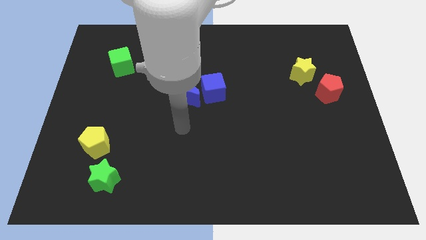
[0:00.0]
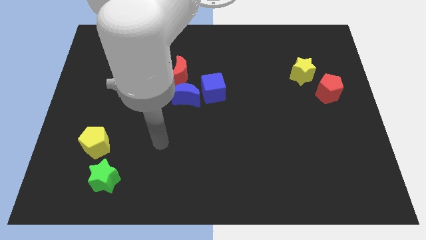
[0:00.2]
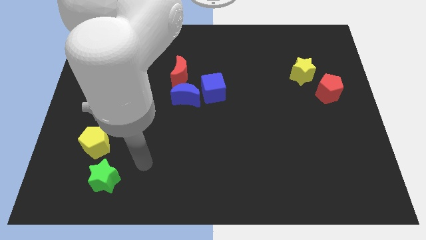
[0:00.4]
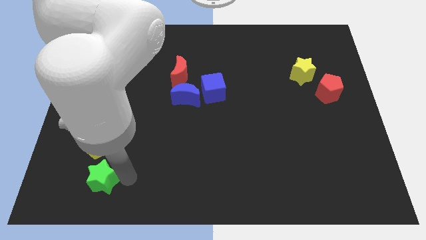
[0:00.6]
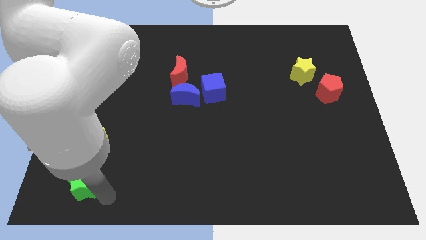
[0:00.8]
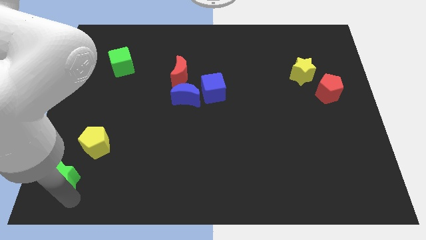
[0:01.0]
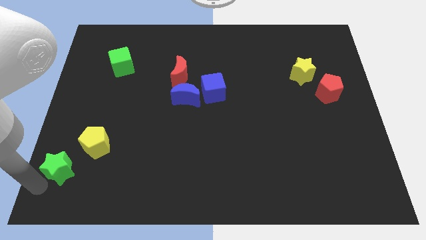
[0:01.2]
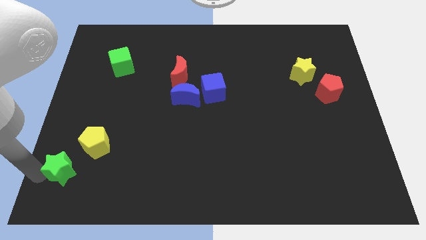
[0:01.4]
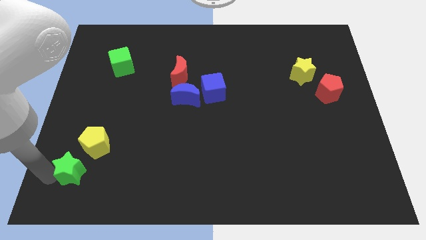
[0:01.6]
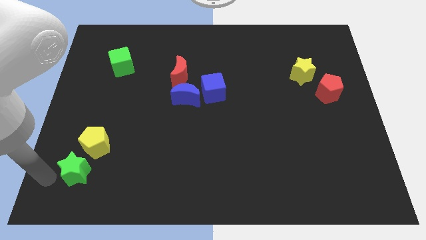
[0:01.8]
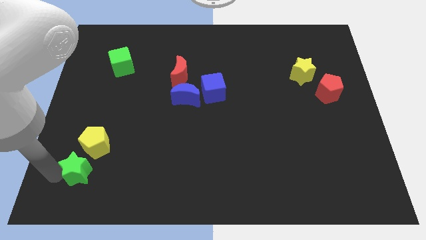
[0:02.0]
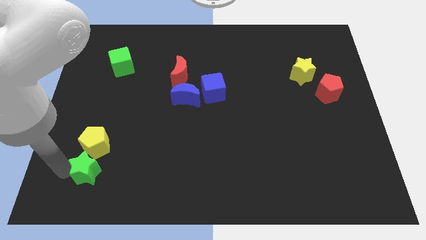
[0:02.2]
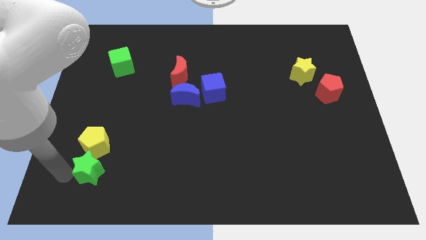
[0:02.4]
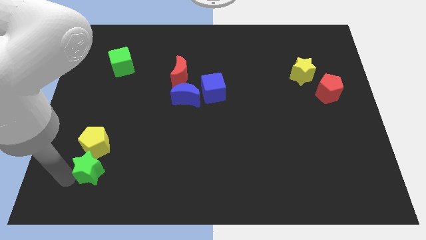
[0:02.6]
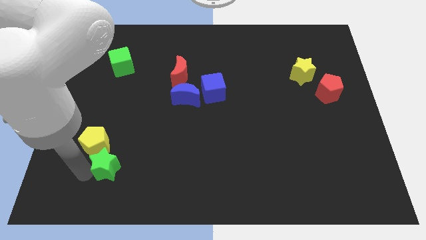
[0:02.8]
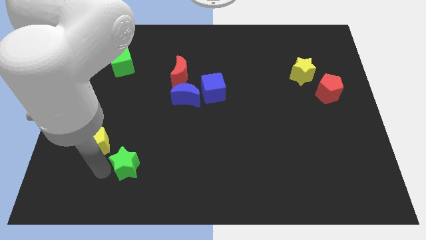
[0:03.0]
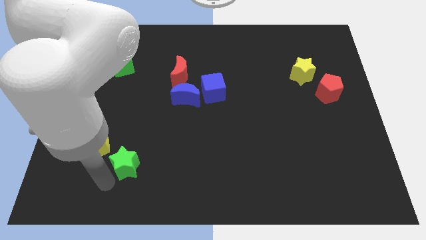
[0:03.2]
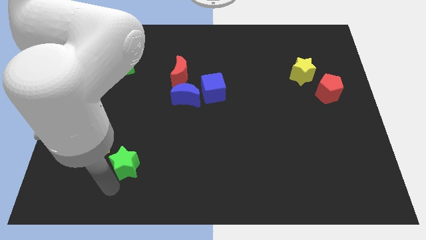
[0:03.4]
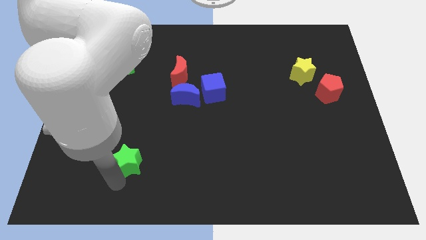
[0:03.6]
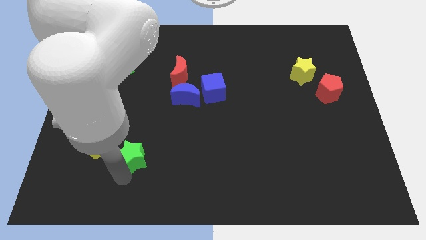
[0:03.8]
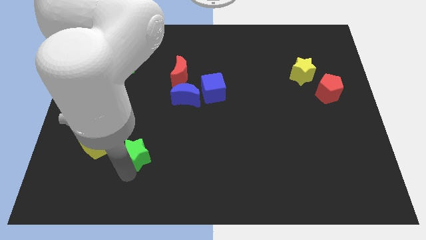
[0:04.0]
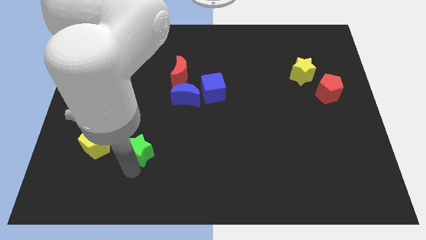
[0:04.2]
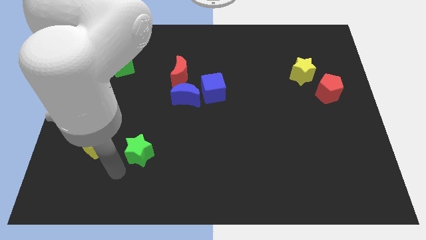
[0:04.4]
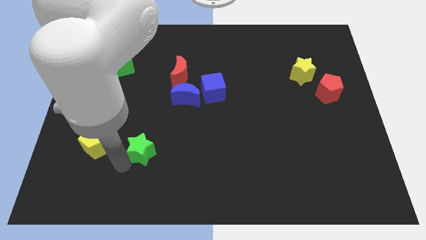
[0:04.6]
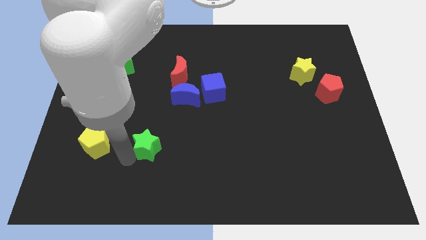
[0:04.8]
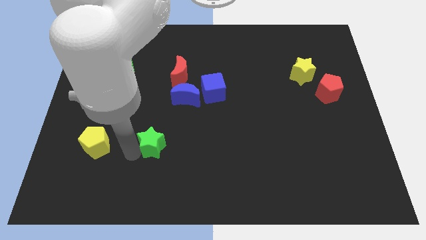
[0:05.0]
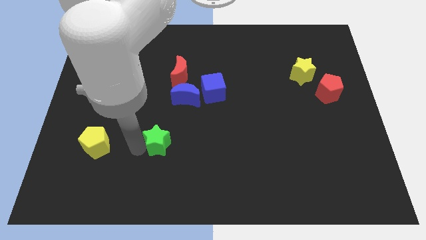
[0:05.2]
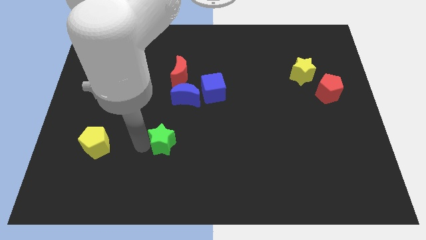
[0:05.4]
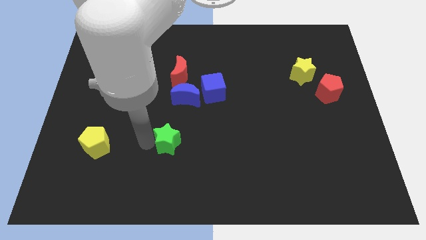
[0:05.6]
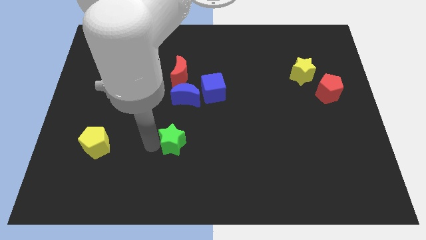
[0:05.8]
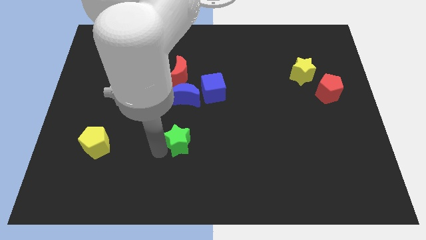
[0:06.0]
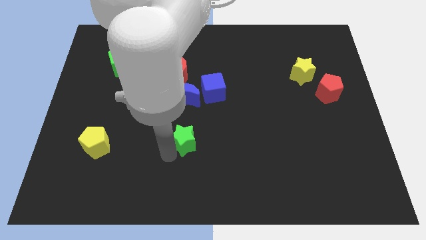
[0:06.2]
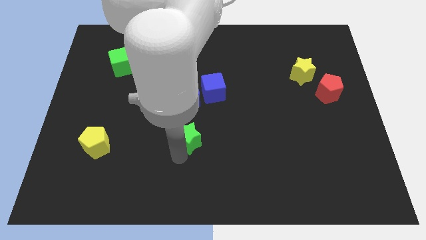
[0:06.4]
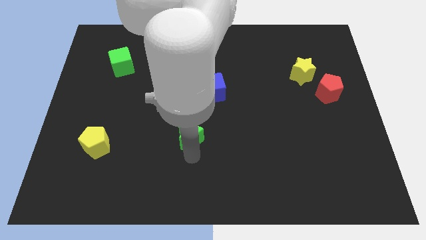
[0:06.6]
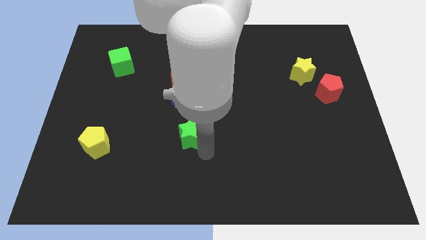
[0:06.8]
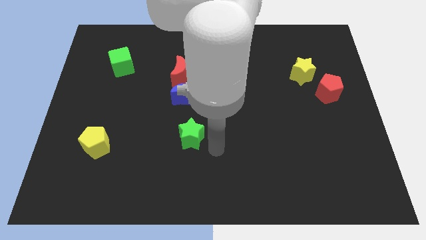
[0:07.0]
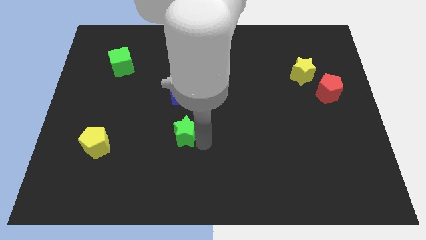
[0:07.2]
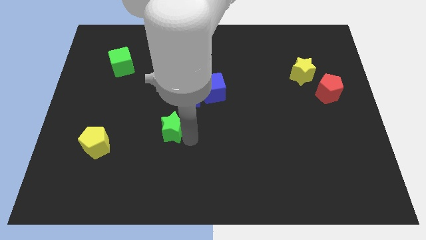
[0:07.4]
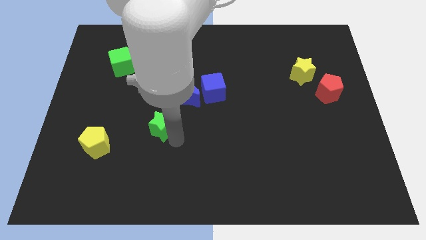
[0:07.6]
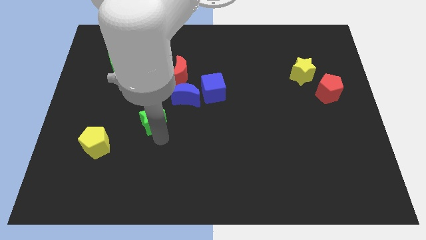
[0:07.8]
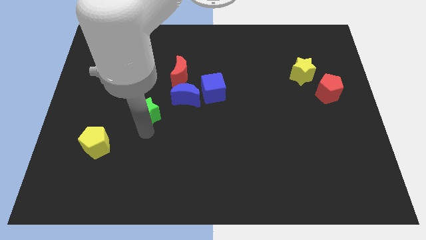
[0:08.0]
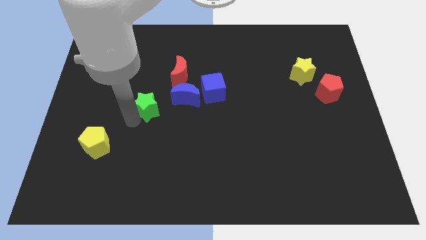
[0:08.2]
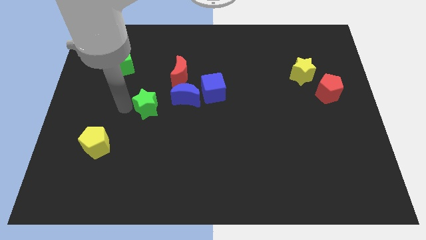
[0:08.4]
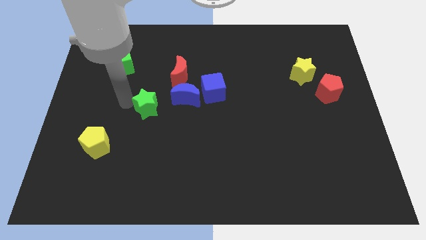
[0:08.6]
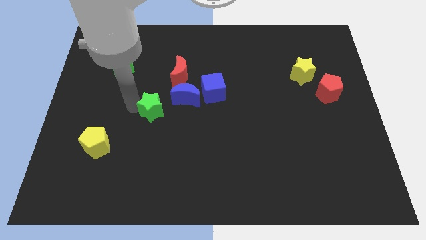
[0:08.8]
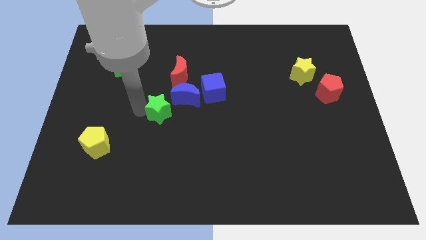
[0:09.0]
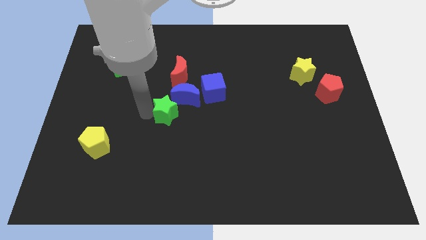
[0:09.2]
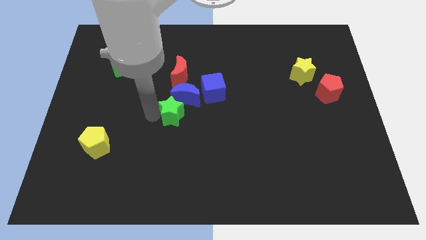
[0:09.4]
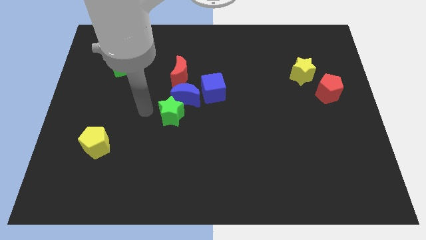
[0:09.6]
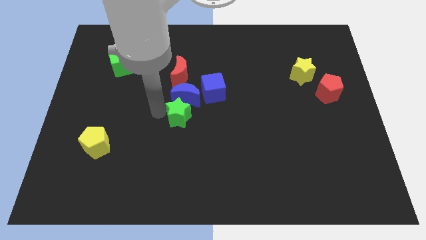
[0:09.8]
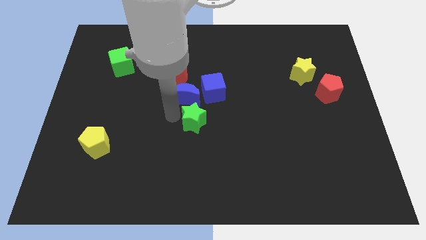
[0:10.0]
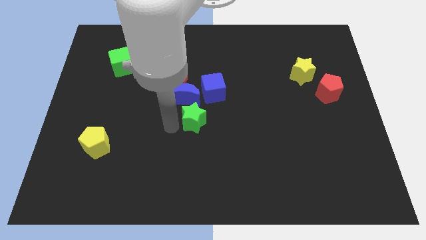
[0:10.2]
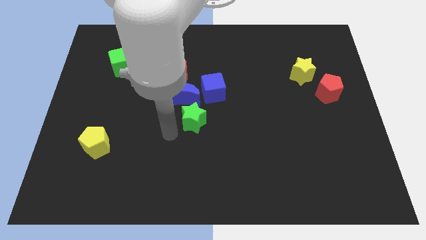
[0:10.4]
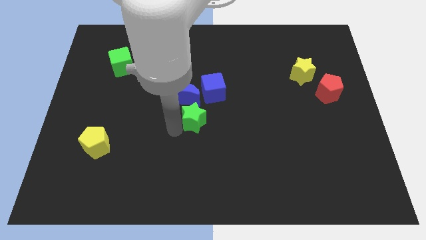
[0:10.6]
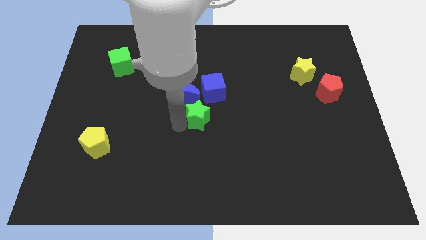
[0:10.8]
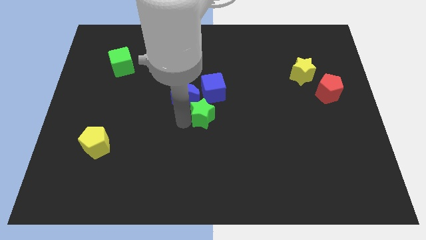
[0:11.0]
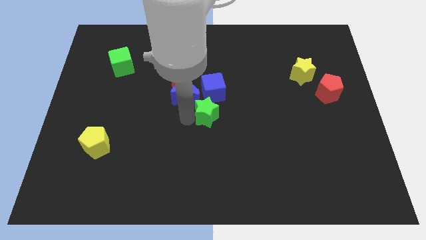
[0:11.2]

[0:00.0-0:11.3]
push the green star to the right of the blue moon

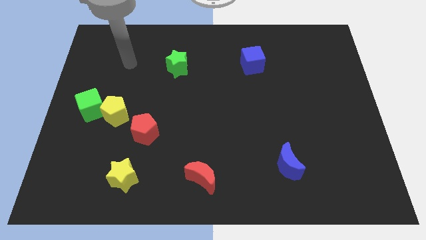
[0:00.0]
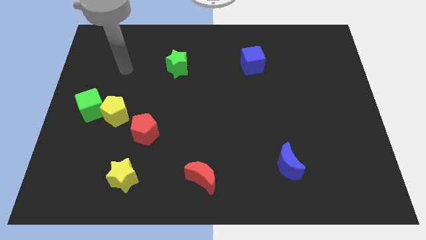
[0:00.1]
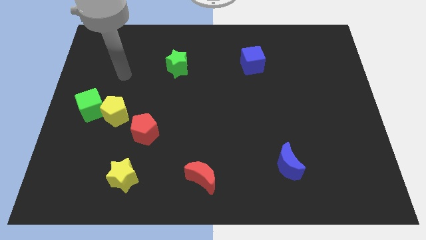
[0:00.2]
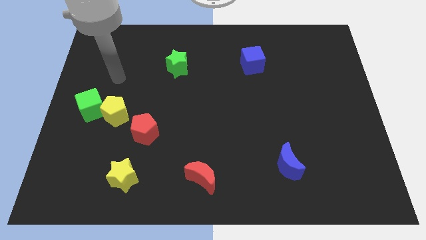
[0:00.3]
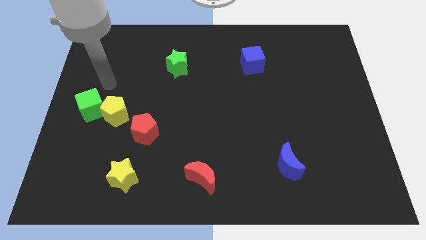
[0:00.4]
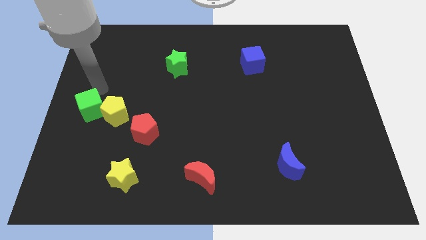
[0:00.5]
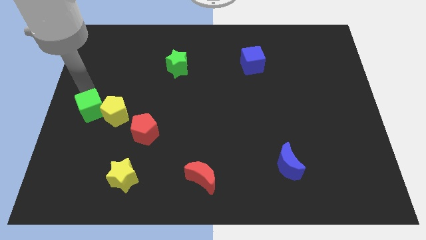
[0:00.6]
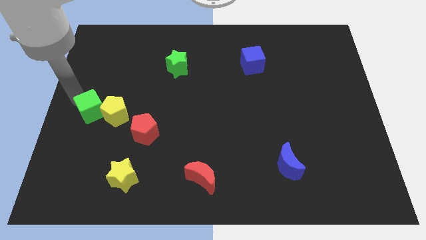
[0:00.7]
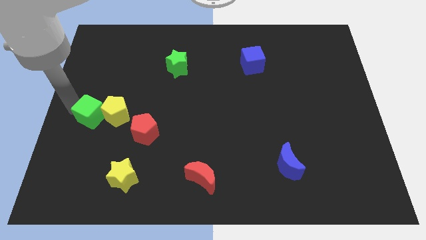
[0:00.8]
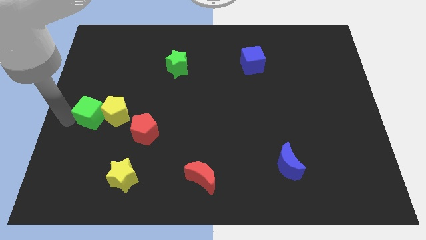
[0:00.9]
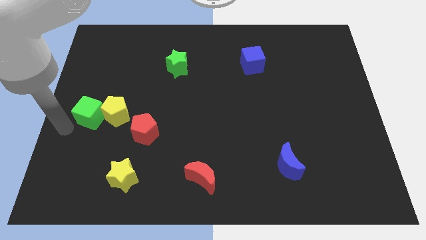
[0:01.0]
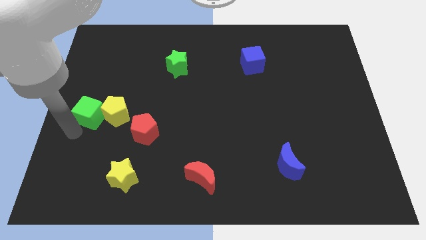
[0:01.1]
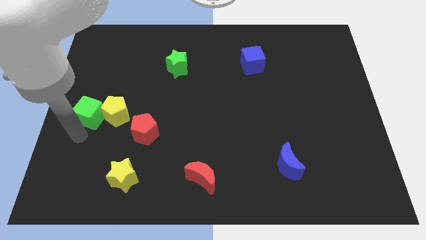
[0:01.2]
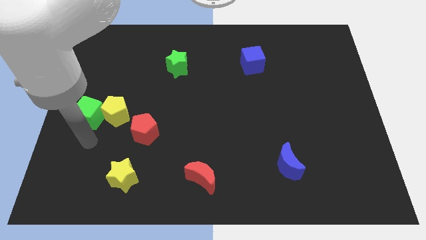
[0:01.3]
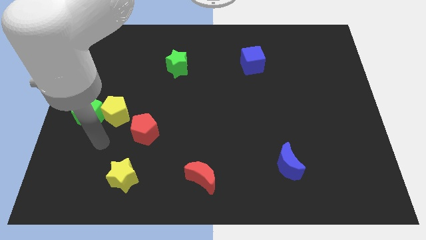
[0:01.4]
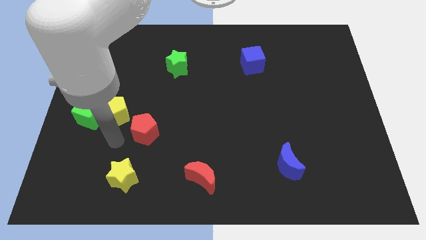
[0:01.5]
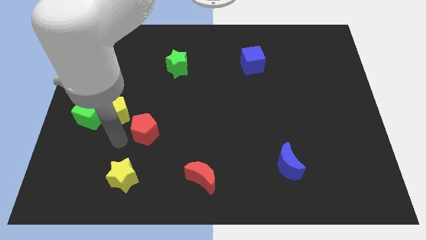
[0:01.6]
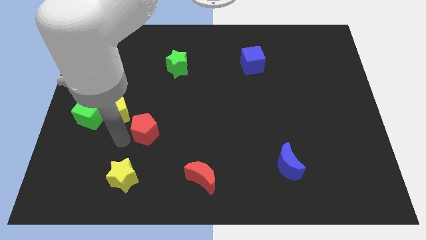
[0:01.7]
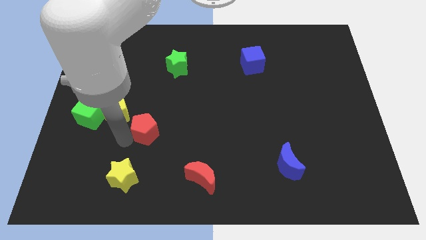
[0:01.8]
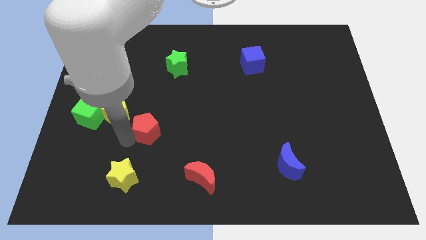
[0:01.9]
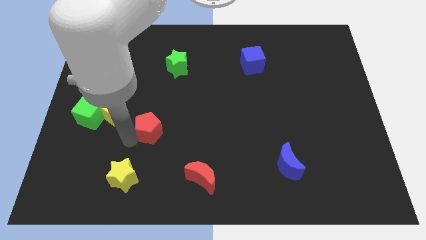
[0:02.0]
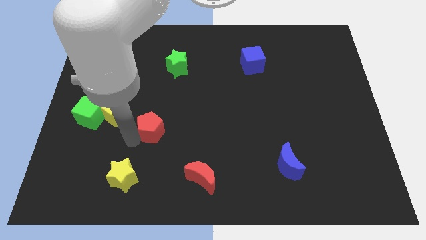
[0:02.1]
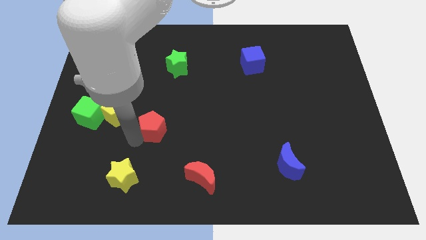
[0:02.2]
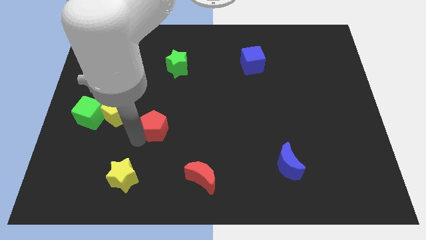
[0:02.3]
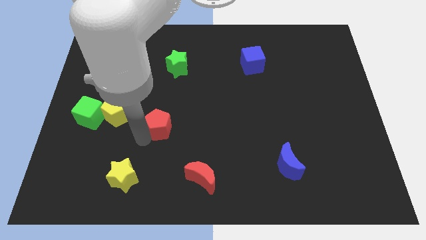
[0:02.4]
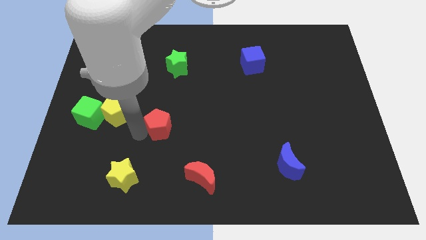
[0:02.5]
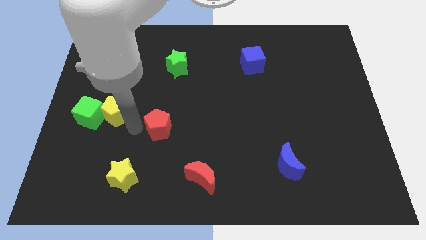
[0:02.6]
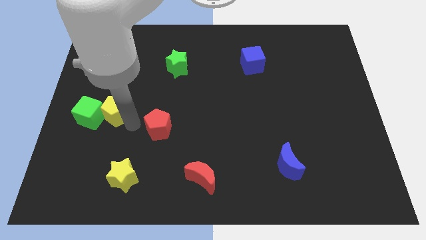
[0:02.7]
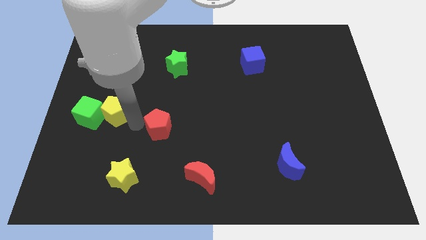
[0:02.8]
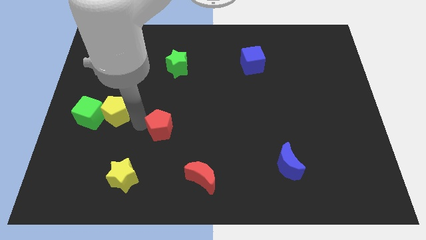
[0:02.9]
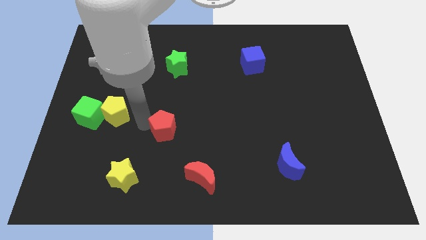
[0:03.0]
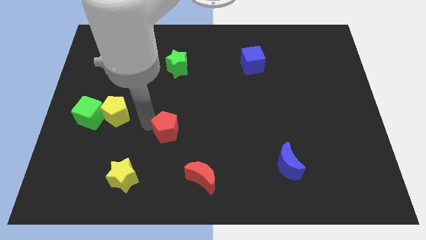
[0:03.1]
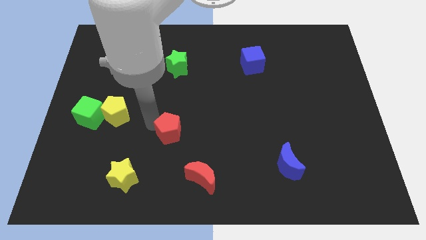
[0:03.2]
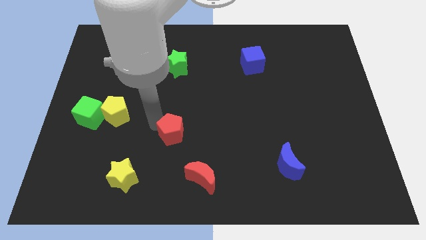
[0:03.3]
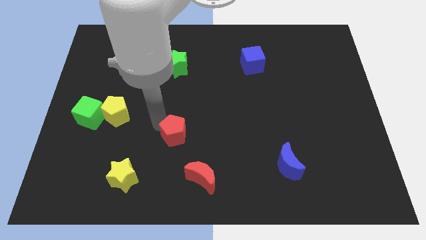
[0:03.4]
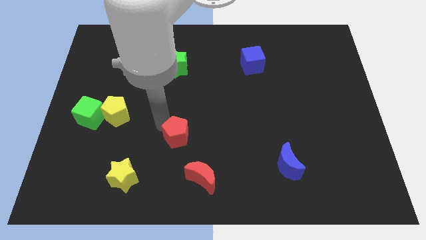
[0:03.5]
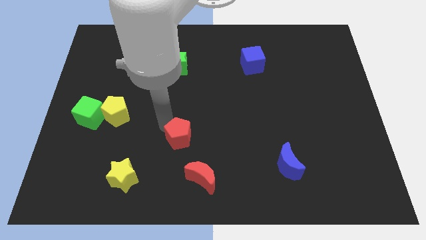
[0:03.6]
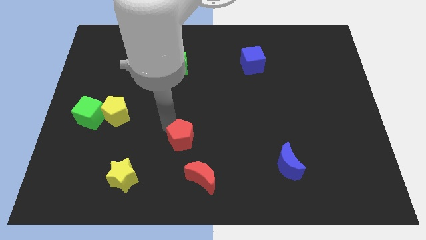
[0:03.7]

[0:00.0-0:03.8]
move the red pentagon above the red moon
